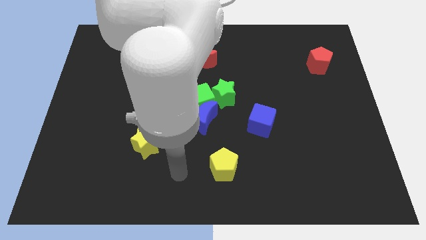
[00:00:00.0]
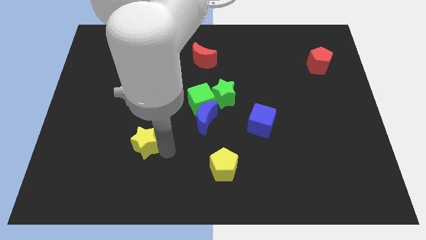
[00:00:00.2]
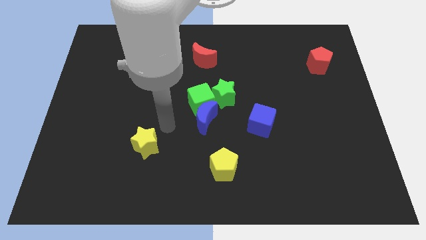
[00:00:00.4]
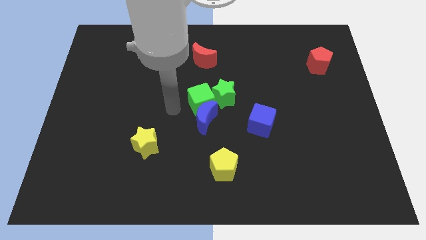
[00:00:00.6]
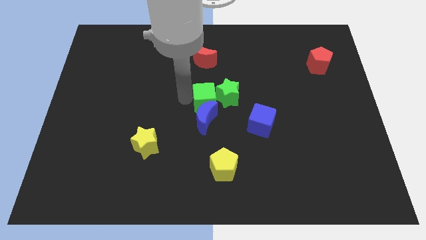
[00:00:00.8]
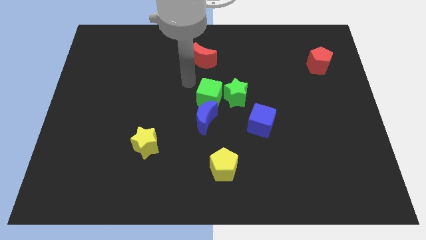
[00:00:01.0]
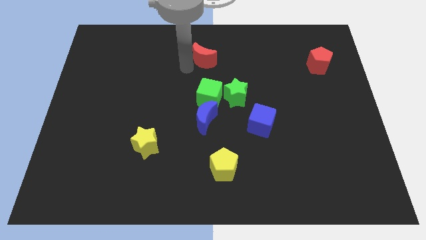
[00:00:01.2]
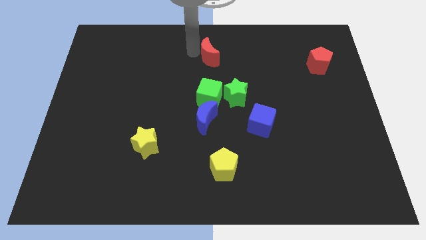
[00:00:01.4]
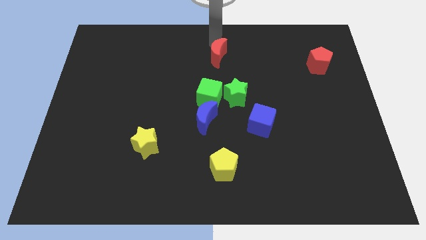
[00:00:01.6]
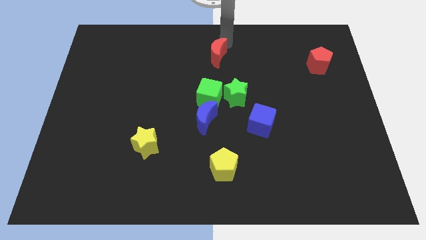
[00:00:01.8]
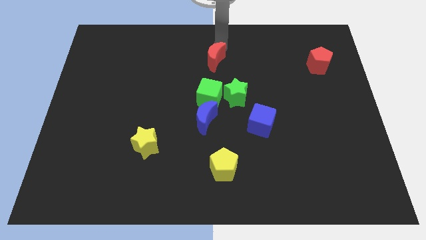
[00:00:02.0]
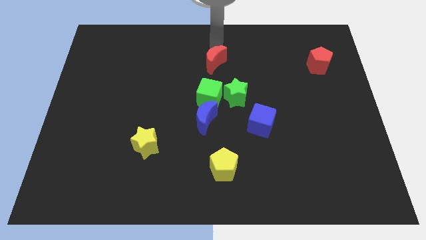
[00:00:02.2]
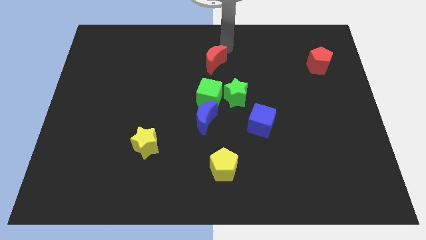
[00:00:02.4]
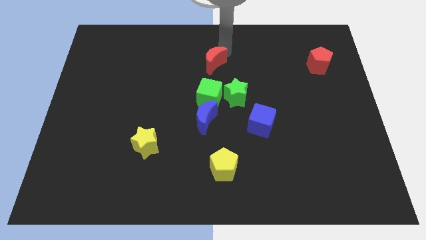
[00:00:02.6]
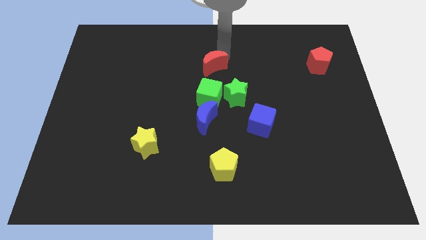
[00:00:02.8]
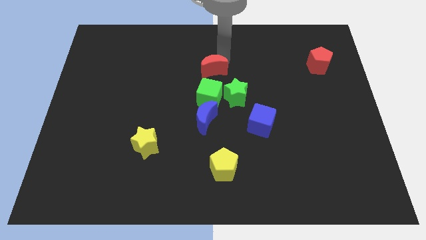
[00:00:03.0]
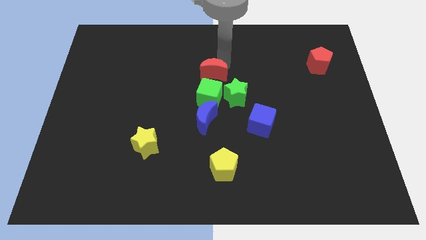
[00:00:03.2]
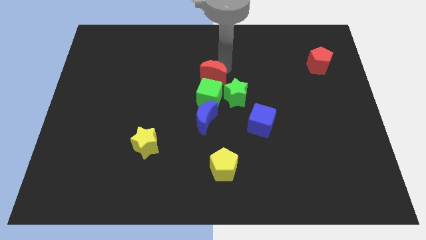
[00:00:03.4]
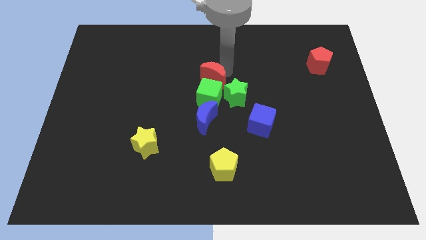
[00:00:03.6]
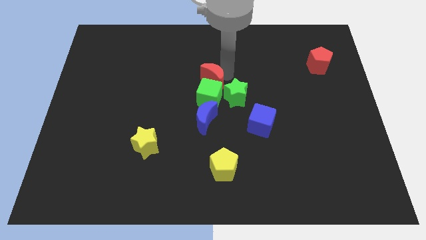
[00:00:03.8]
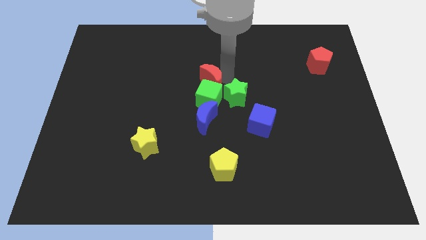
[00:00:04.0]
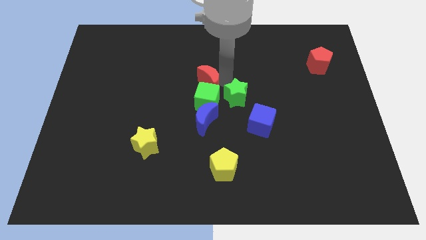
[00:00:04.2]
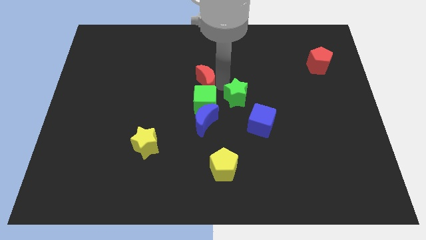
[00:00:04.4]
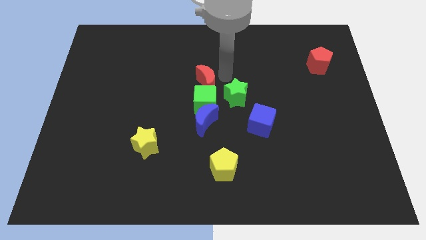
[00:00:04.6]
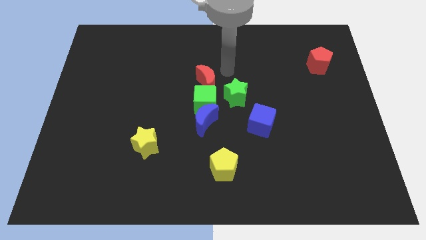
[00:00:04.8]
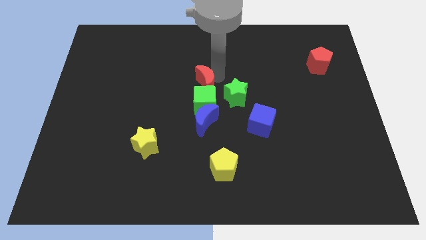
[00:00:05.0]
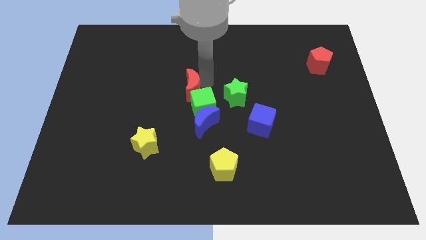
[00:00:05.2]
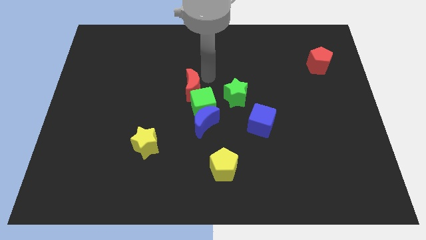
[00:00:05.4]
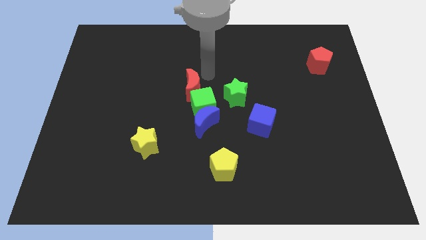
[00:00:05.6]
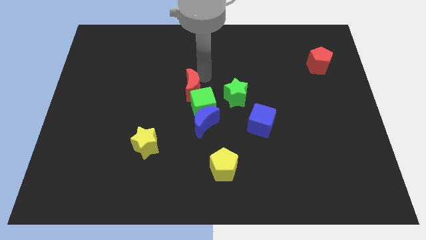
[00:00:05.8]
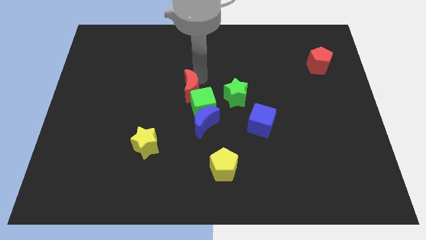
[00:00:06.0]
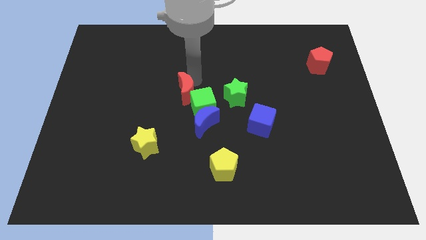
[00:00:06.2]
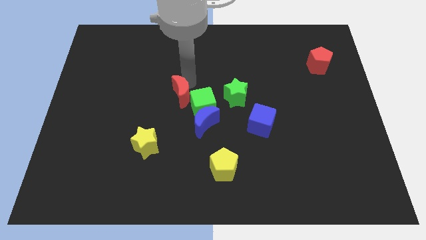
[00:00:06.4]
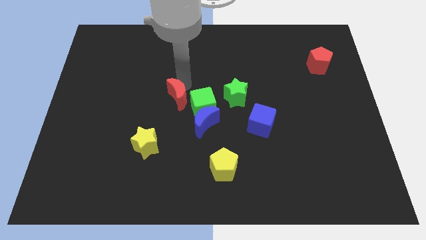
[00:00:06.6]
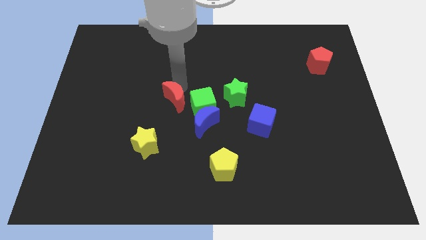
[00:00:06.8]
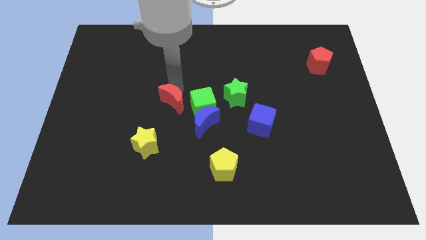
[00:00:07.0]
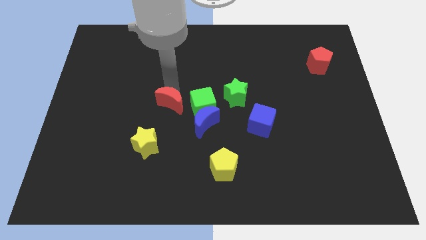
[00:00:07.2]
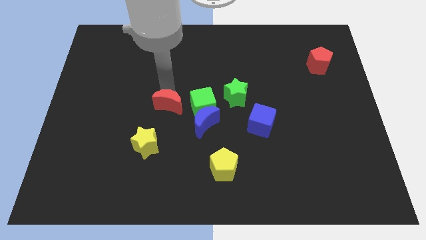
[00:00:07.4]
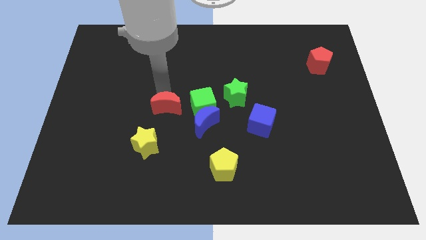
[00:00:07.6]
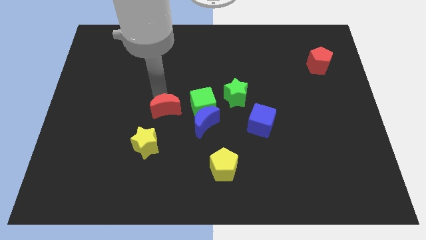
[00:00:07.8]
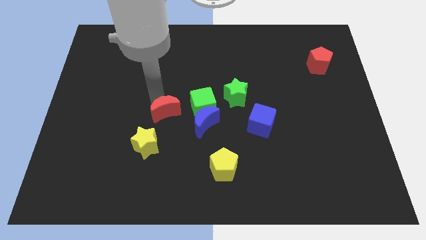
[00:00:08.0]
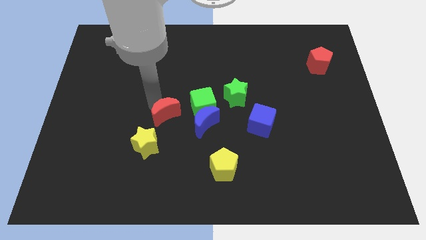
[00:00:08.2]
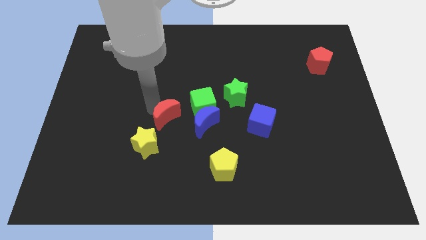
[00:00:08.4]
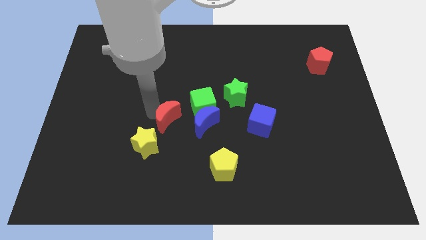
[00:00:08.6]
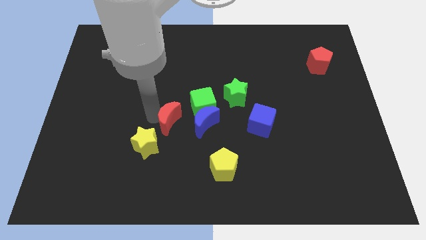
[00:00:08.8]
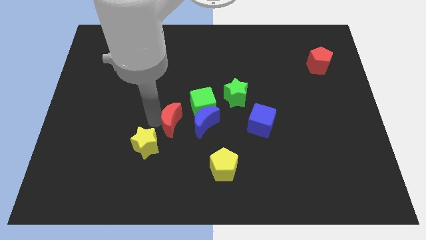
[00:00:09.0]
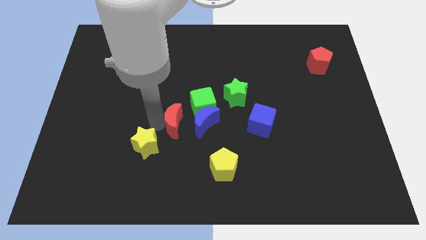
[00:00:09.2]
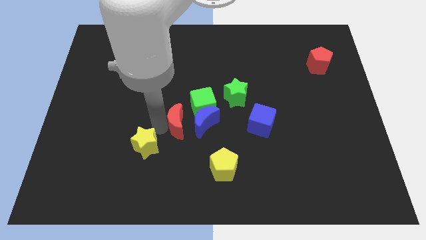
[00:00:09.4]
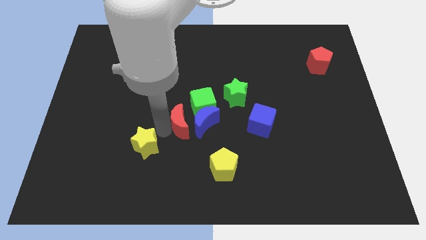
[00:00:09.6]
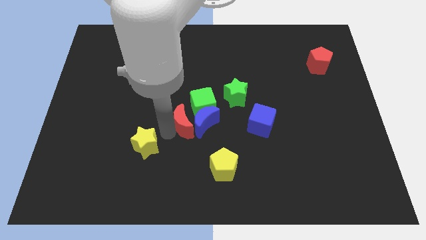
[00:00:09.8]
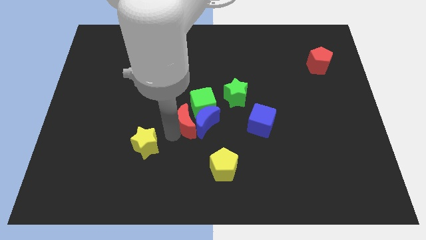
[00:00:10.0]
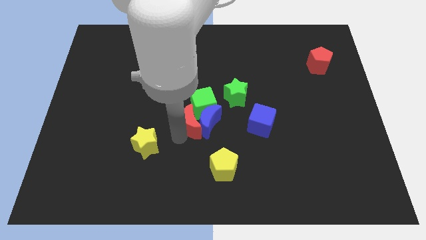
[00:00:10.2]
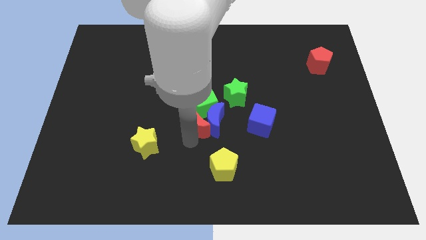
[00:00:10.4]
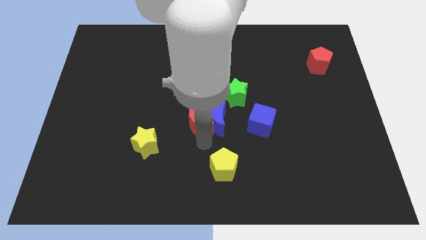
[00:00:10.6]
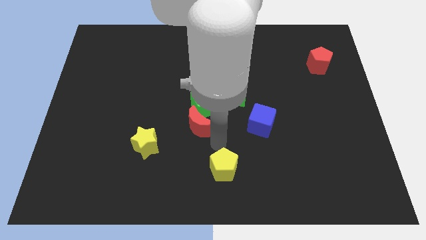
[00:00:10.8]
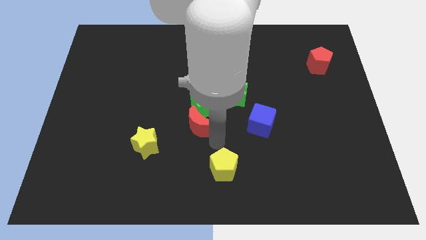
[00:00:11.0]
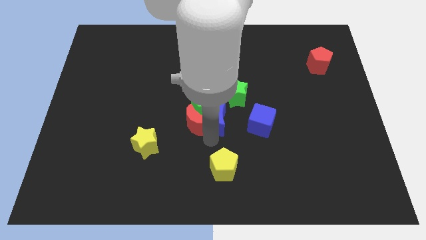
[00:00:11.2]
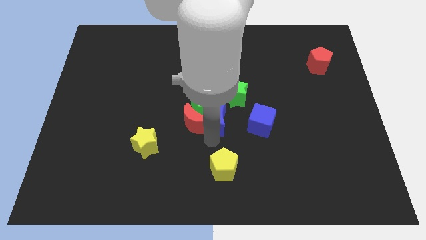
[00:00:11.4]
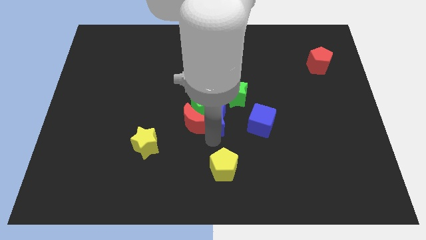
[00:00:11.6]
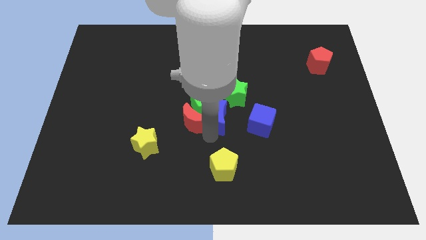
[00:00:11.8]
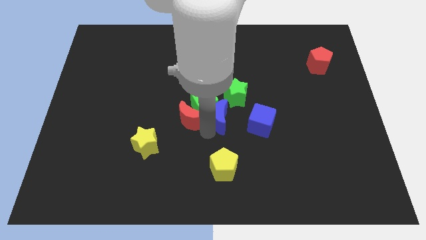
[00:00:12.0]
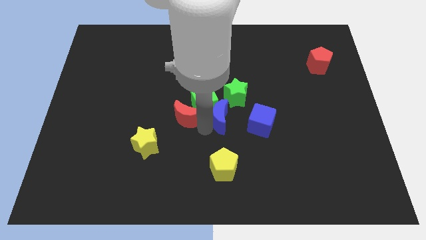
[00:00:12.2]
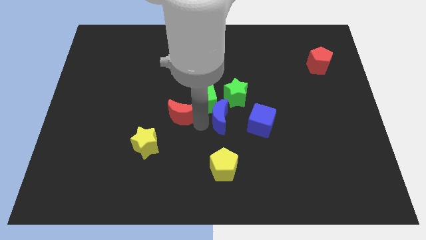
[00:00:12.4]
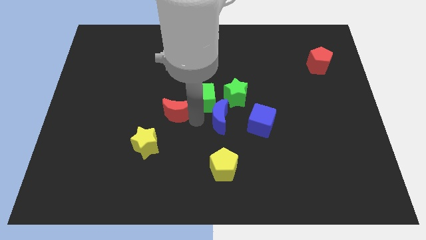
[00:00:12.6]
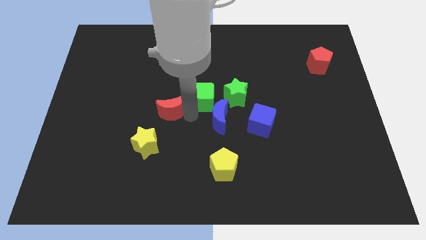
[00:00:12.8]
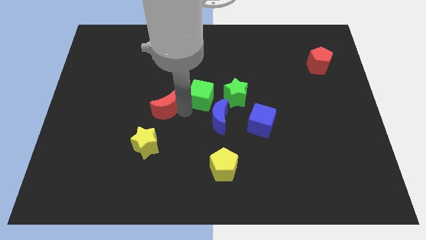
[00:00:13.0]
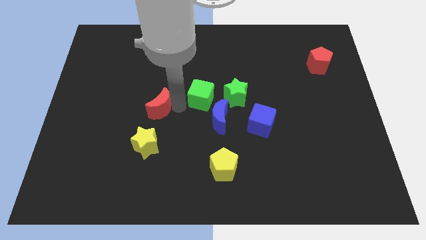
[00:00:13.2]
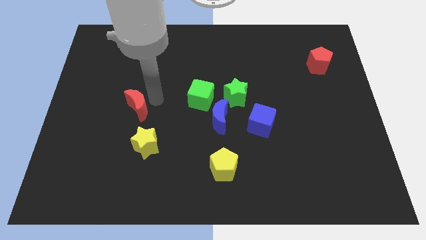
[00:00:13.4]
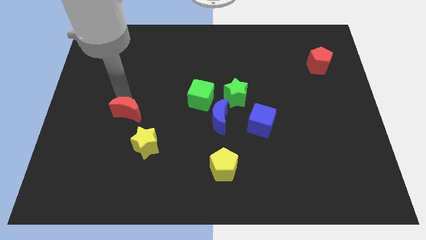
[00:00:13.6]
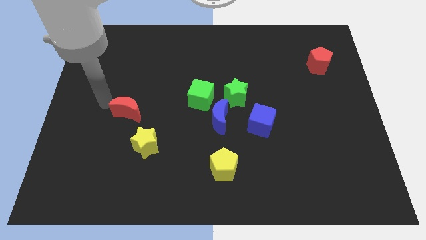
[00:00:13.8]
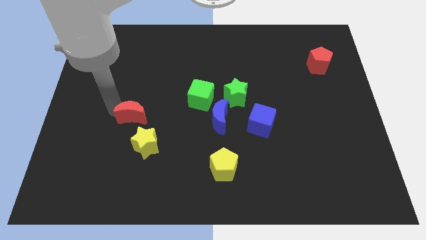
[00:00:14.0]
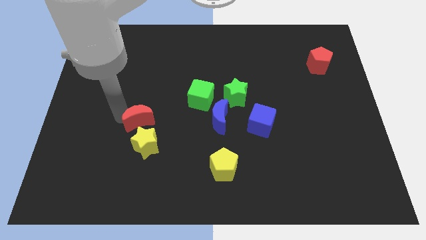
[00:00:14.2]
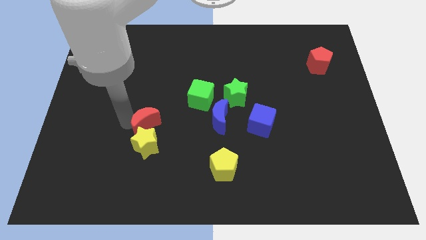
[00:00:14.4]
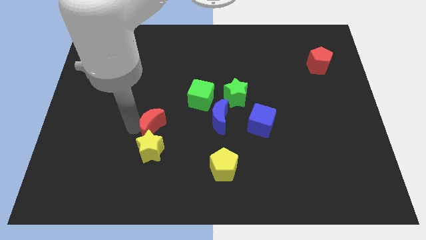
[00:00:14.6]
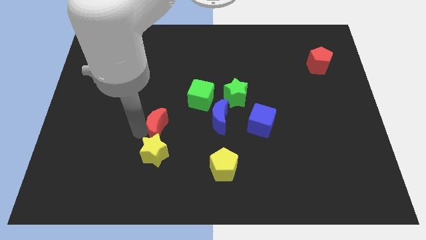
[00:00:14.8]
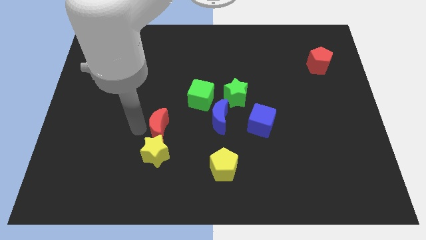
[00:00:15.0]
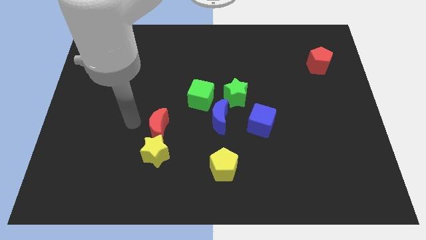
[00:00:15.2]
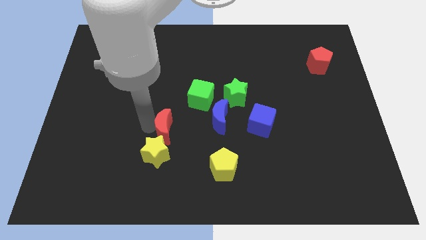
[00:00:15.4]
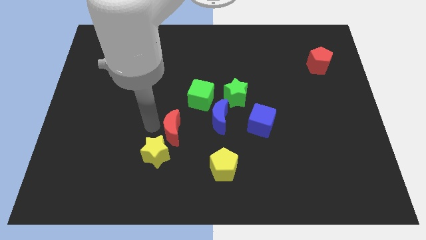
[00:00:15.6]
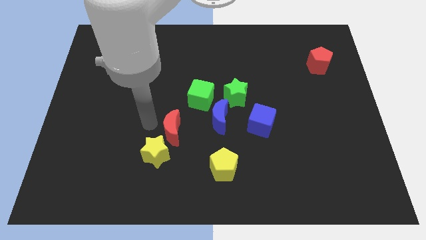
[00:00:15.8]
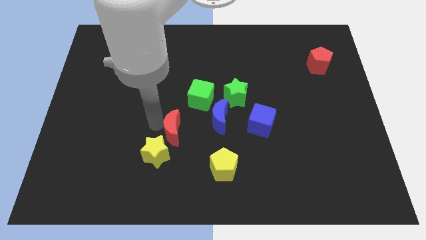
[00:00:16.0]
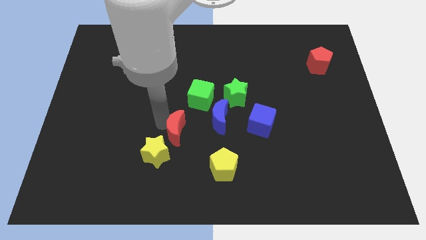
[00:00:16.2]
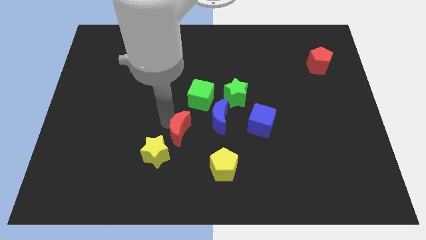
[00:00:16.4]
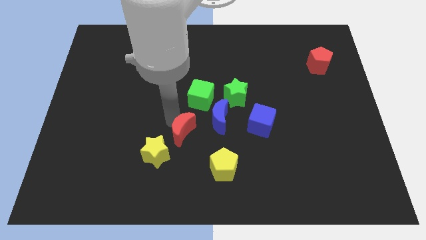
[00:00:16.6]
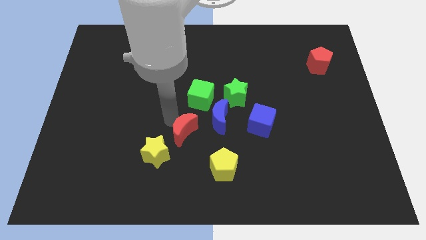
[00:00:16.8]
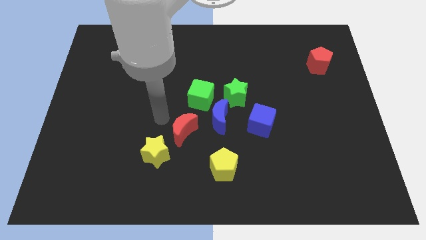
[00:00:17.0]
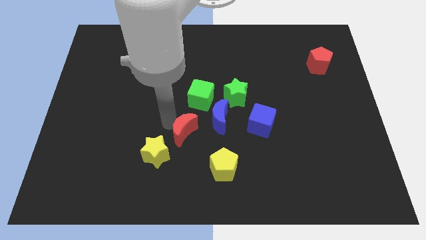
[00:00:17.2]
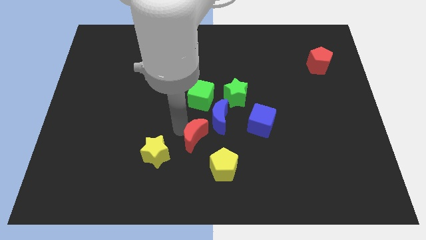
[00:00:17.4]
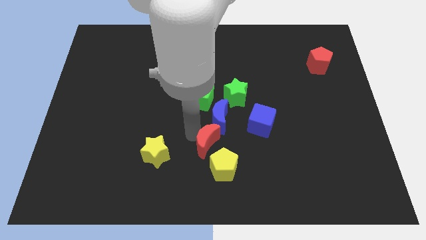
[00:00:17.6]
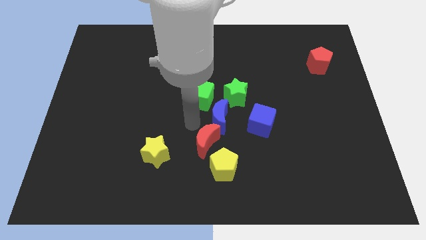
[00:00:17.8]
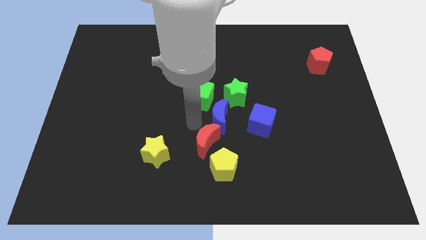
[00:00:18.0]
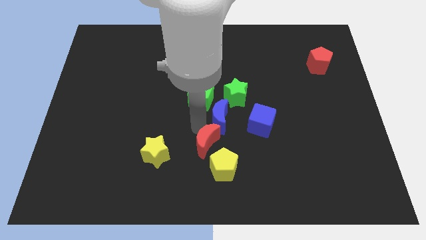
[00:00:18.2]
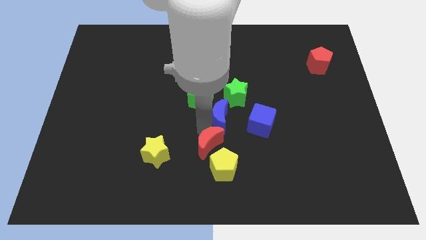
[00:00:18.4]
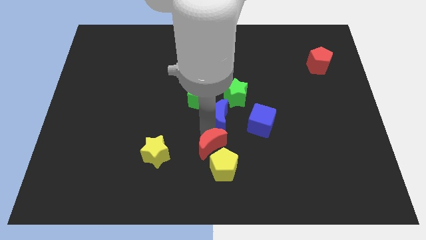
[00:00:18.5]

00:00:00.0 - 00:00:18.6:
put the red moon to the yellow pentagon
